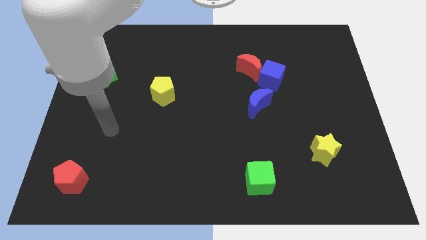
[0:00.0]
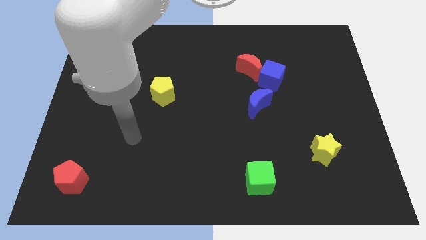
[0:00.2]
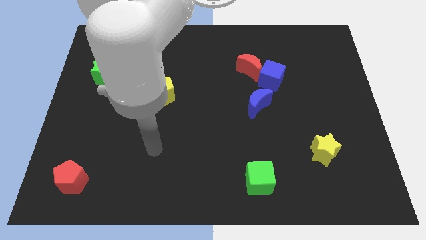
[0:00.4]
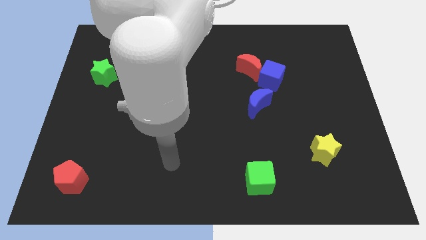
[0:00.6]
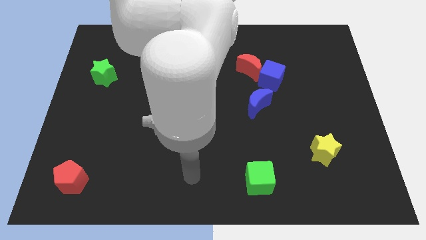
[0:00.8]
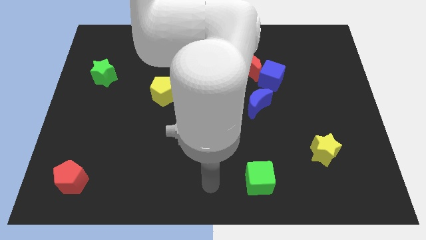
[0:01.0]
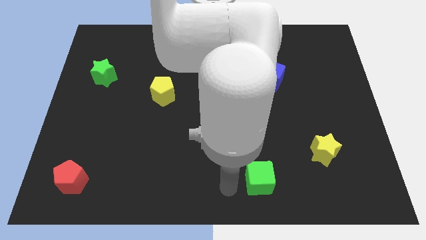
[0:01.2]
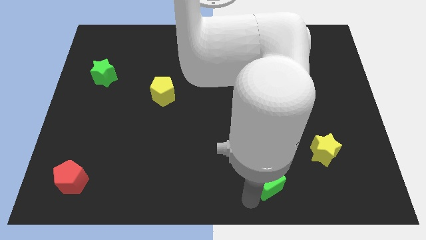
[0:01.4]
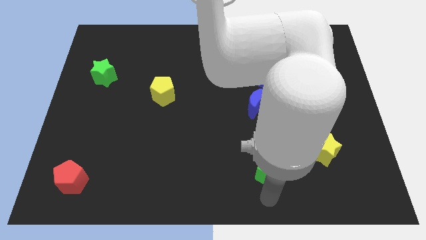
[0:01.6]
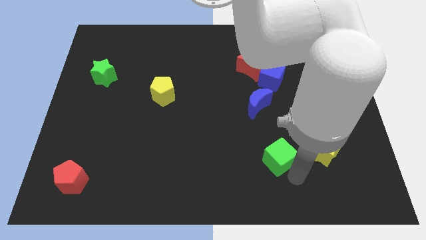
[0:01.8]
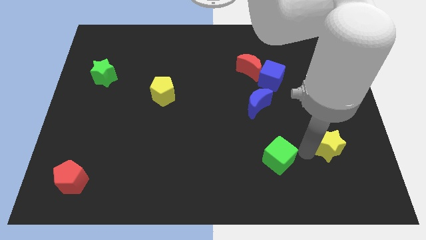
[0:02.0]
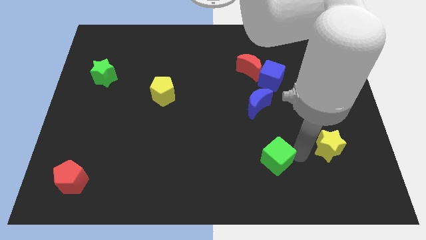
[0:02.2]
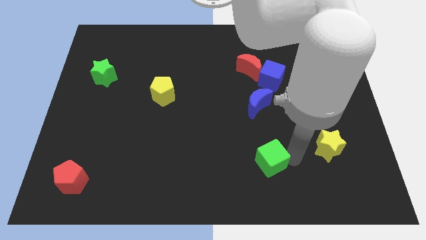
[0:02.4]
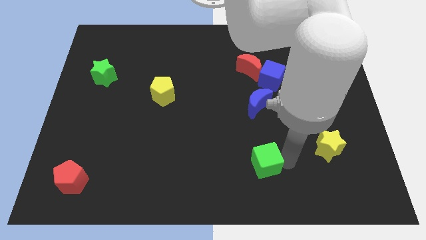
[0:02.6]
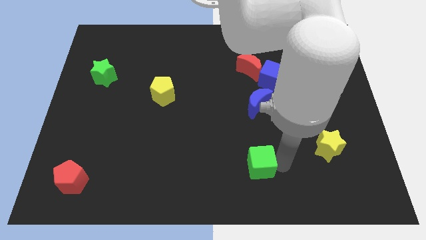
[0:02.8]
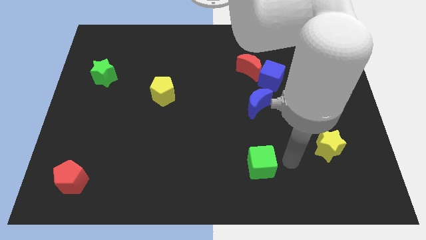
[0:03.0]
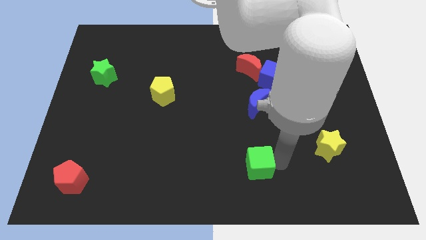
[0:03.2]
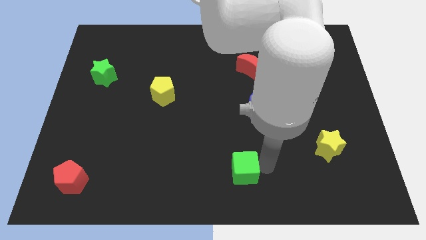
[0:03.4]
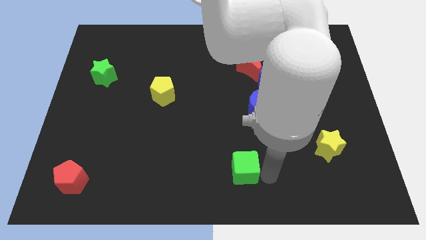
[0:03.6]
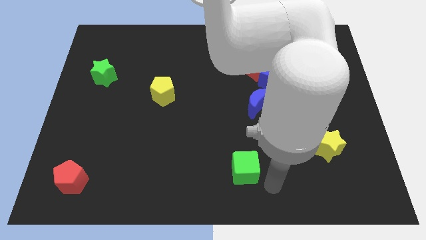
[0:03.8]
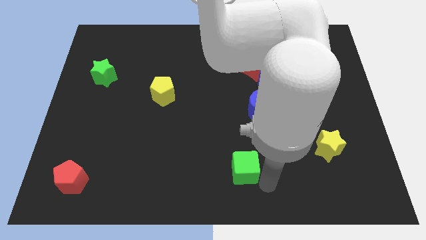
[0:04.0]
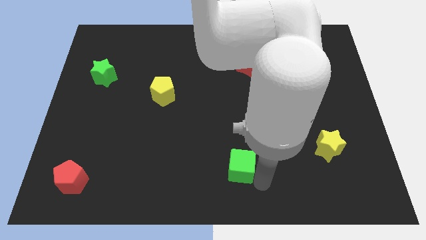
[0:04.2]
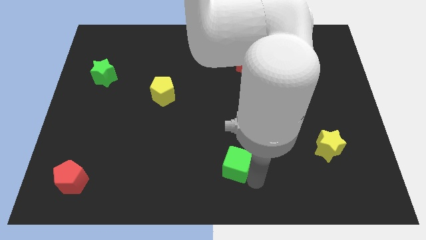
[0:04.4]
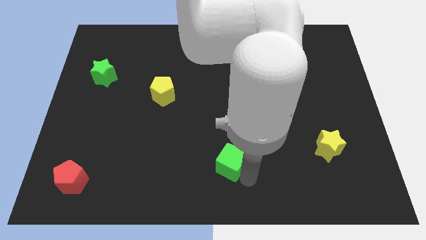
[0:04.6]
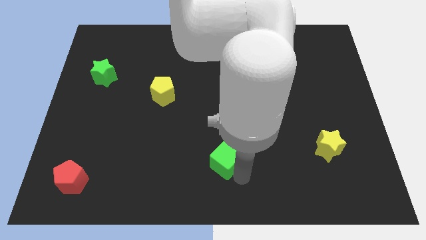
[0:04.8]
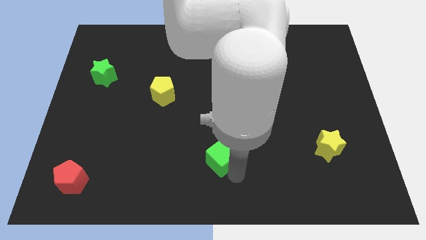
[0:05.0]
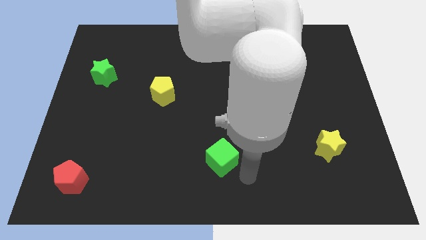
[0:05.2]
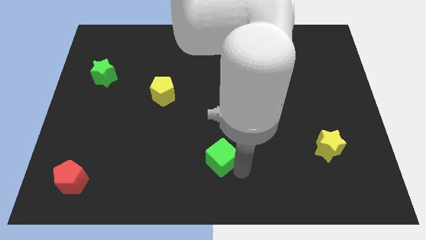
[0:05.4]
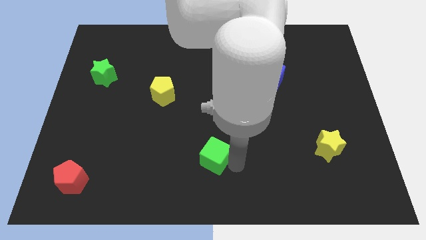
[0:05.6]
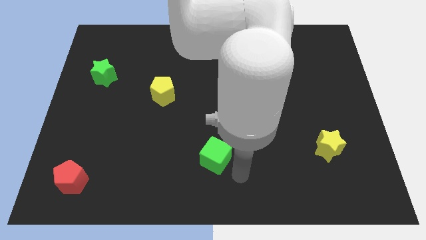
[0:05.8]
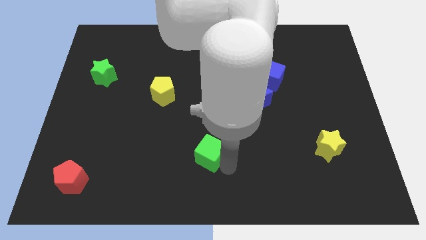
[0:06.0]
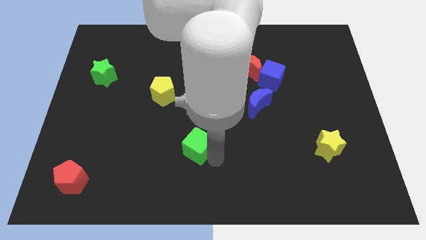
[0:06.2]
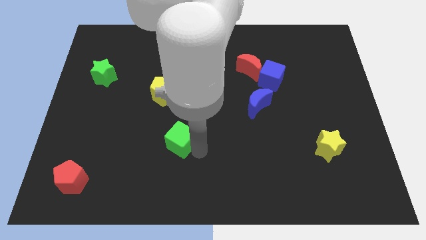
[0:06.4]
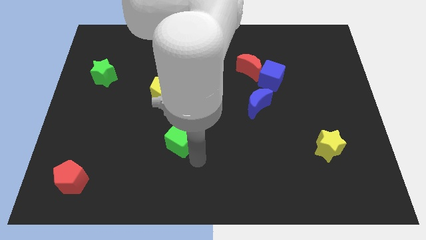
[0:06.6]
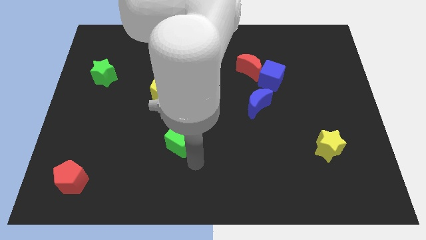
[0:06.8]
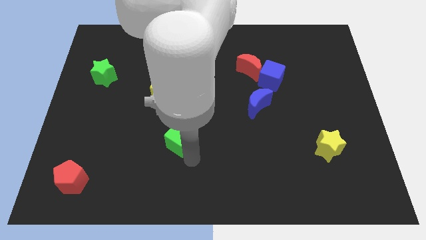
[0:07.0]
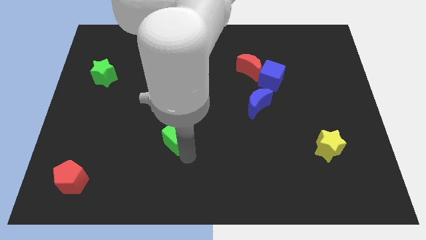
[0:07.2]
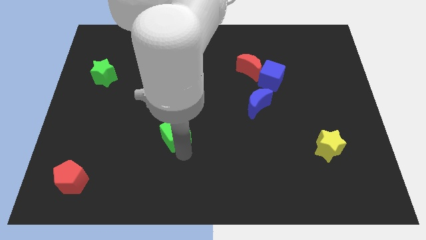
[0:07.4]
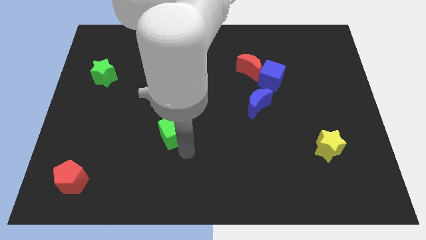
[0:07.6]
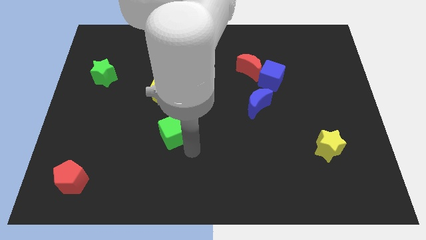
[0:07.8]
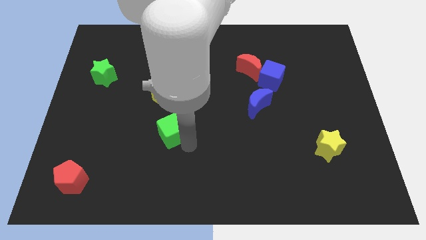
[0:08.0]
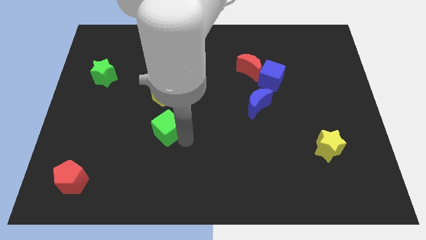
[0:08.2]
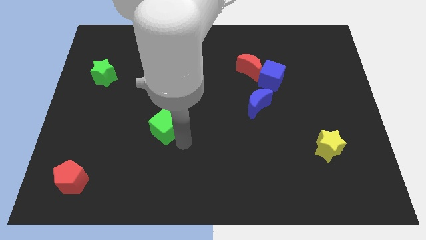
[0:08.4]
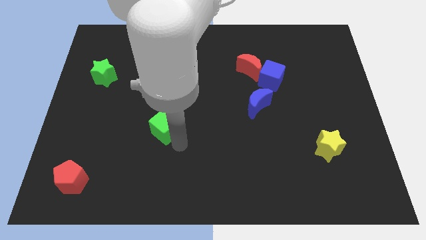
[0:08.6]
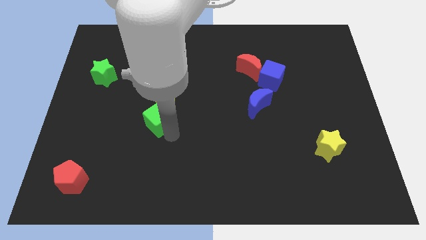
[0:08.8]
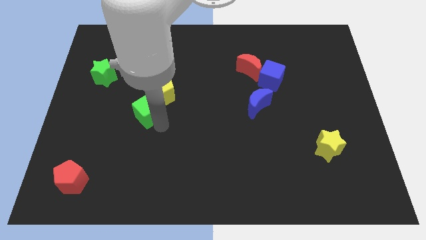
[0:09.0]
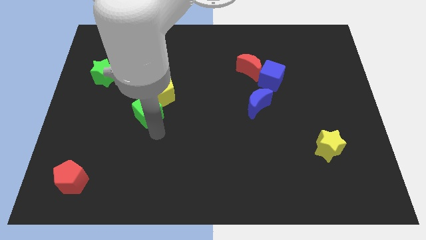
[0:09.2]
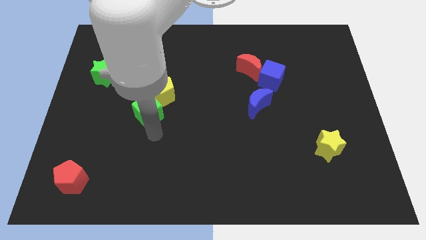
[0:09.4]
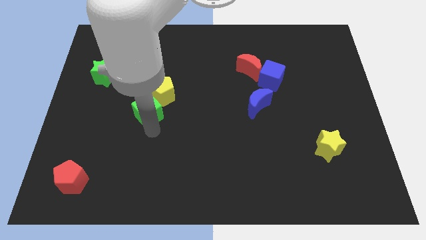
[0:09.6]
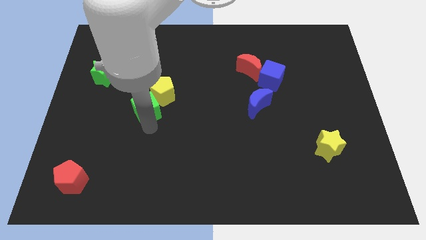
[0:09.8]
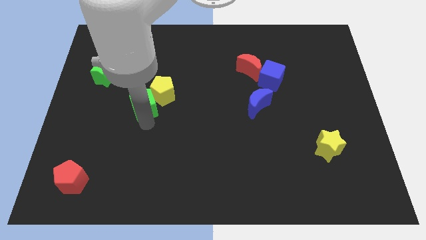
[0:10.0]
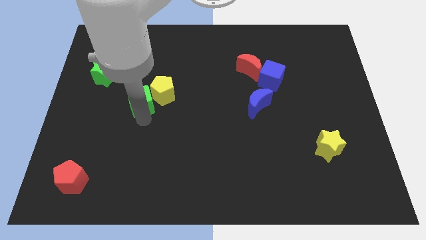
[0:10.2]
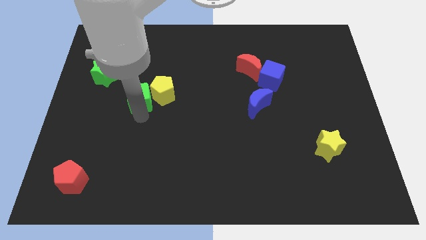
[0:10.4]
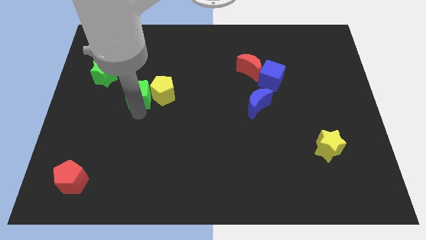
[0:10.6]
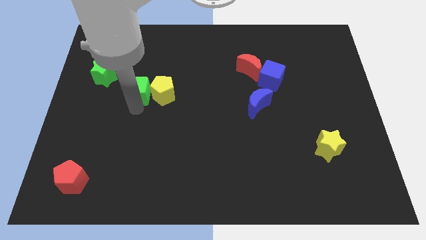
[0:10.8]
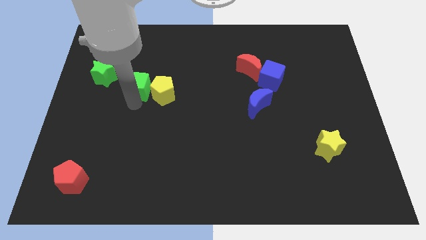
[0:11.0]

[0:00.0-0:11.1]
slide the green cube right of the green star

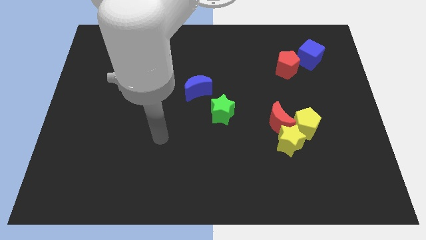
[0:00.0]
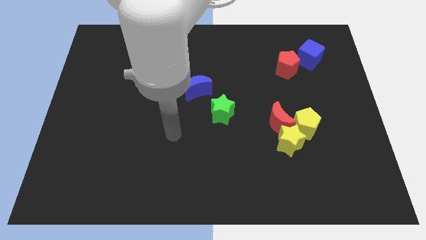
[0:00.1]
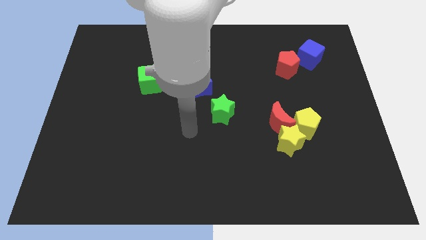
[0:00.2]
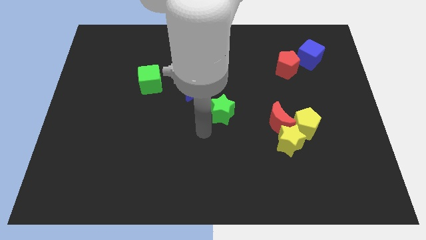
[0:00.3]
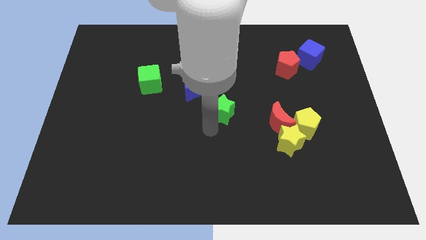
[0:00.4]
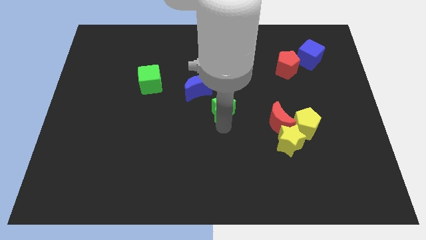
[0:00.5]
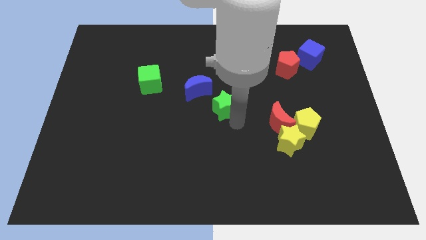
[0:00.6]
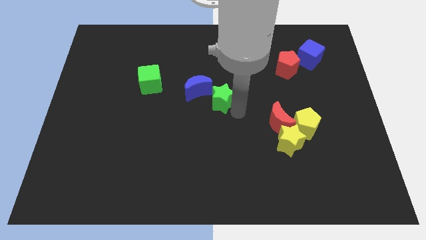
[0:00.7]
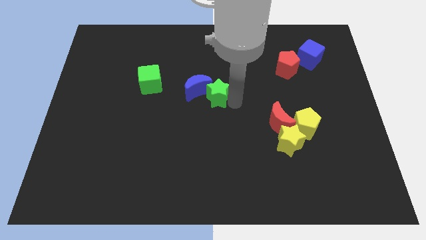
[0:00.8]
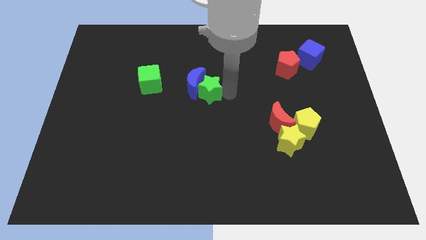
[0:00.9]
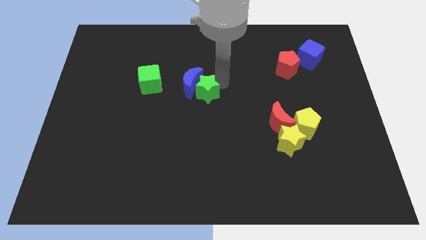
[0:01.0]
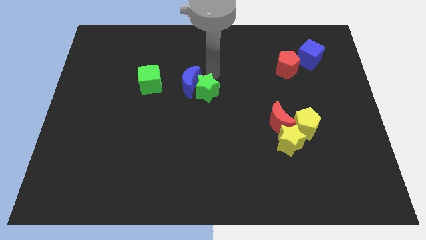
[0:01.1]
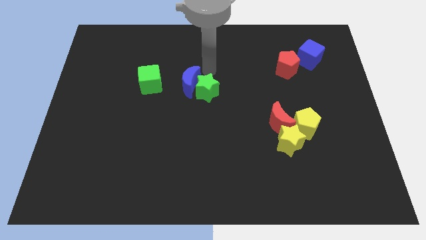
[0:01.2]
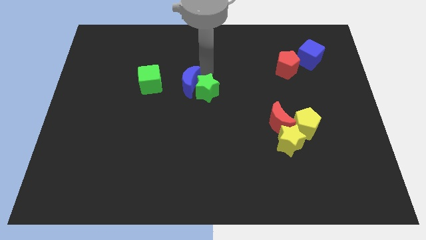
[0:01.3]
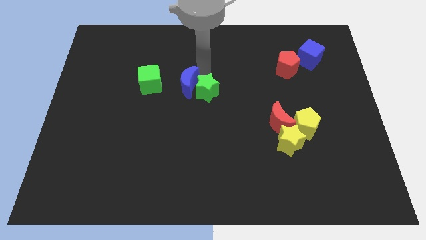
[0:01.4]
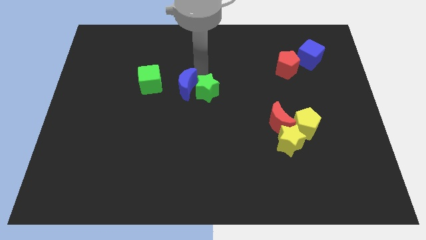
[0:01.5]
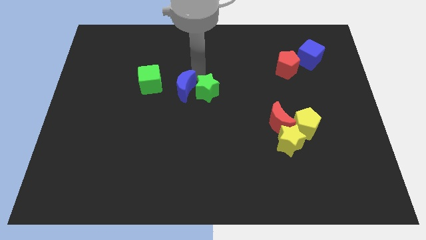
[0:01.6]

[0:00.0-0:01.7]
move the blue moon to the bottom right of the green cube
